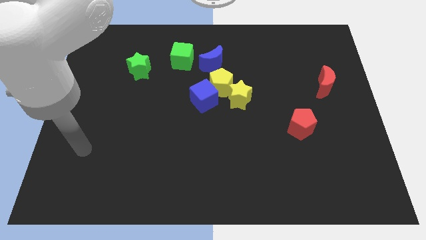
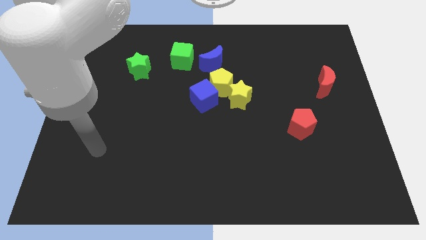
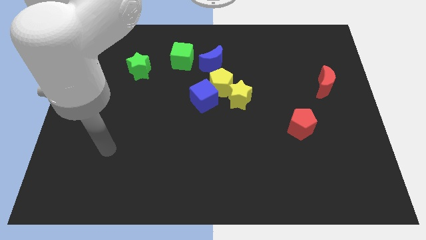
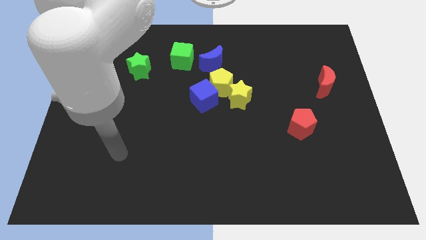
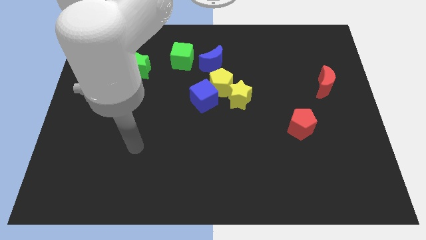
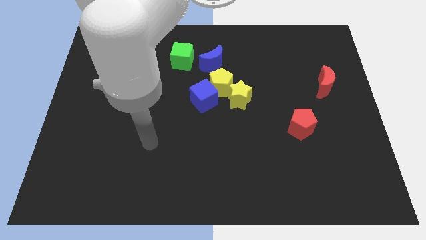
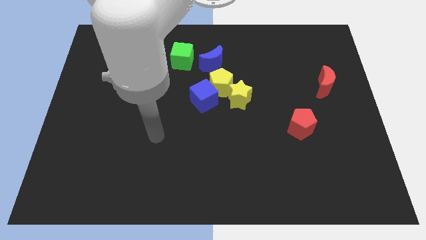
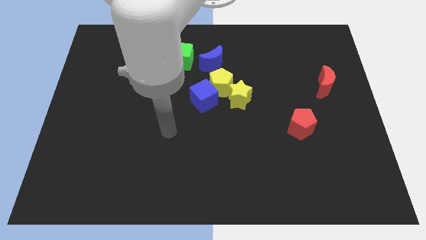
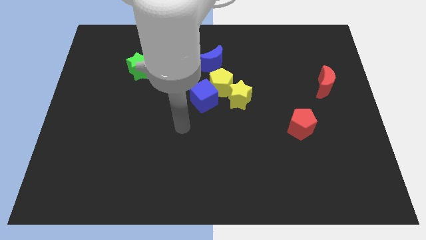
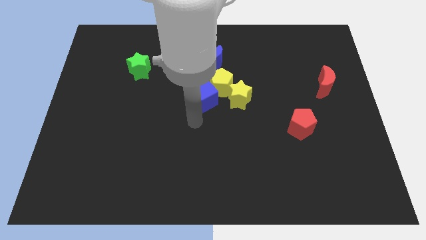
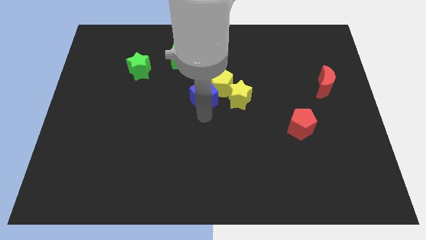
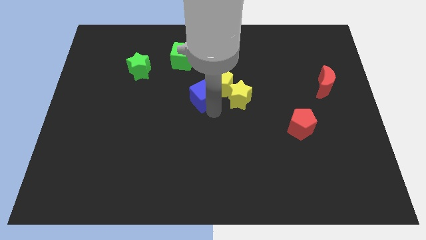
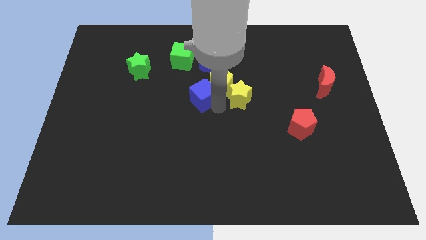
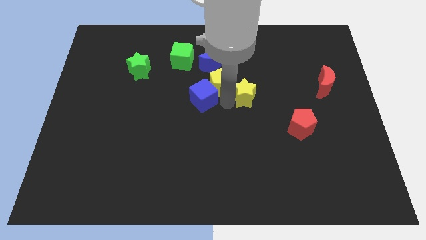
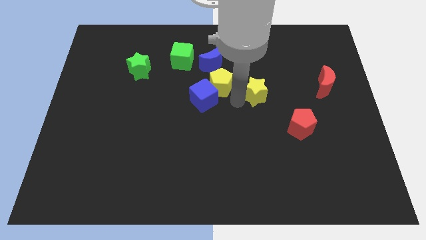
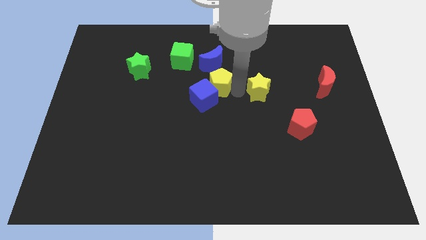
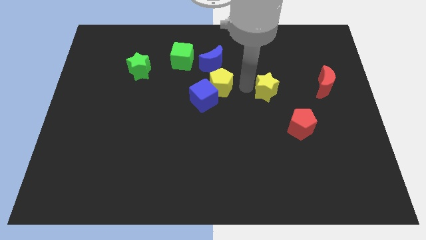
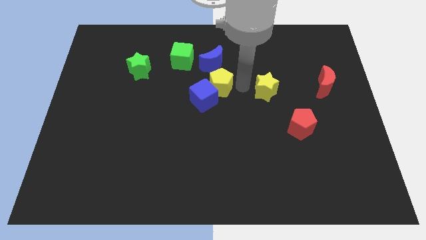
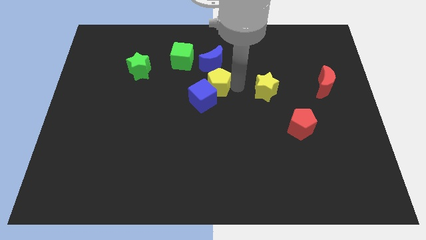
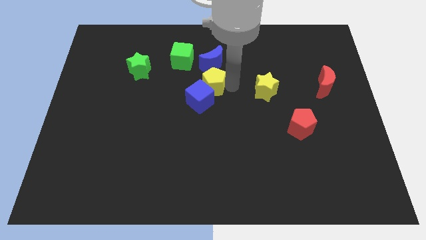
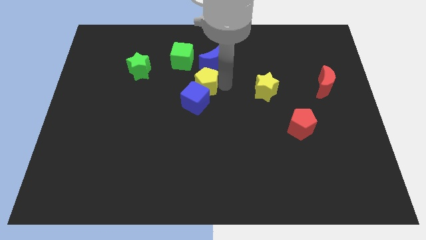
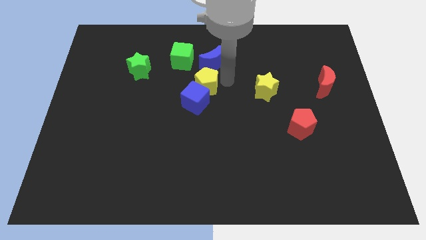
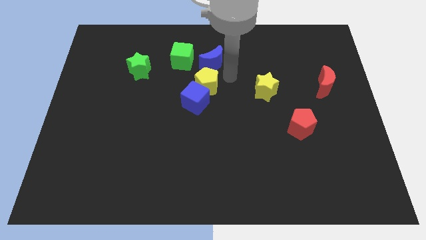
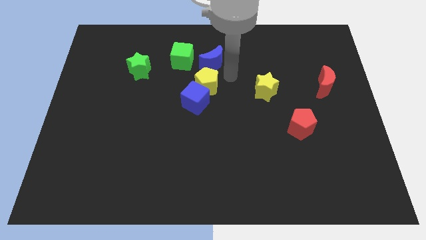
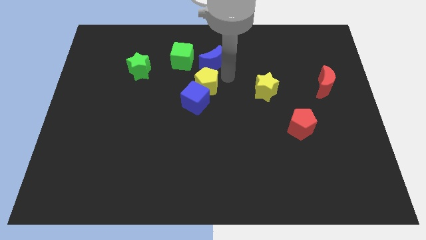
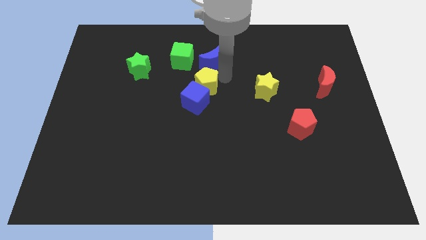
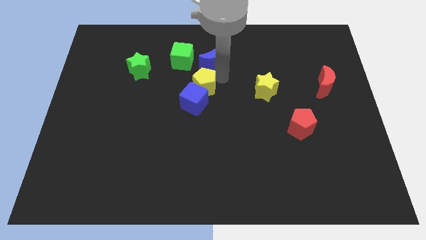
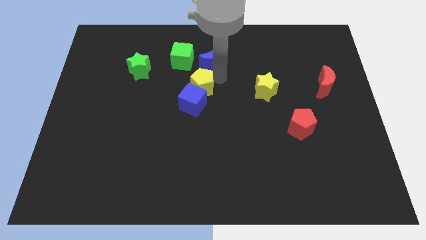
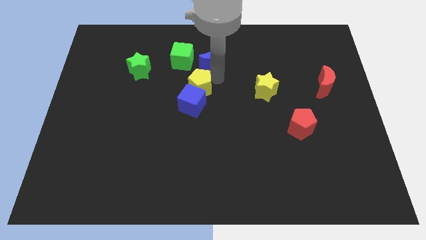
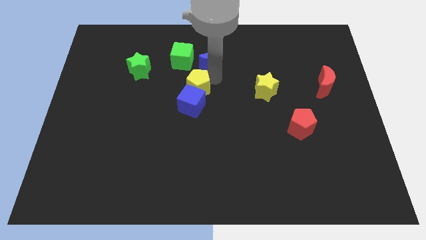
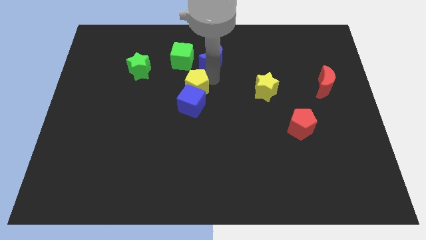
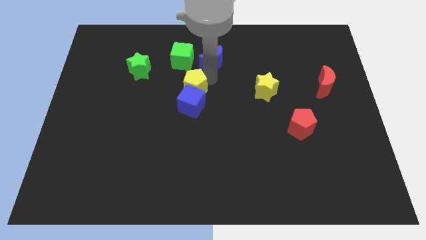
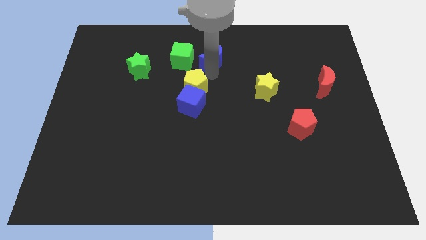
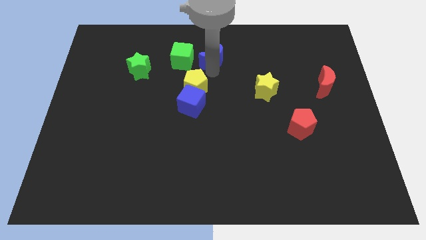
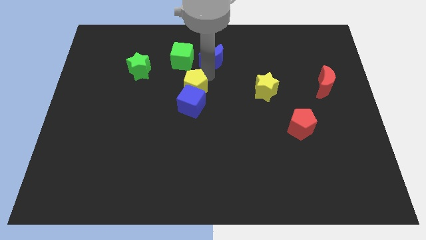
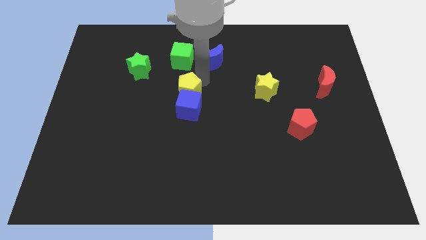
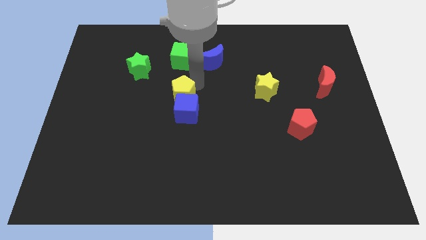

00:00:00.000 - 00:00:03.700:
slightly push the yellow pentagon down and then to the left

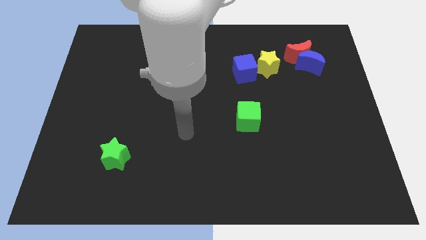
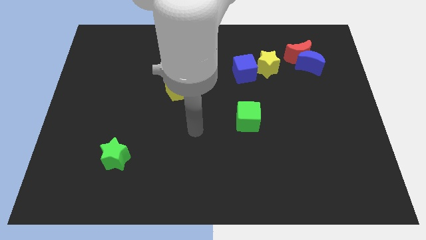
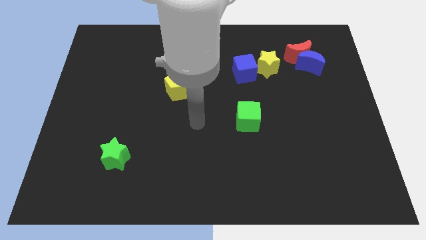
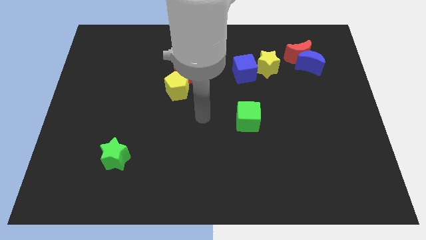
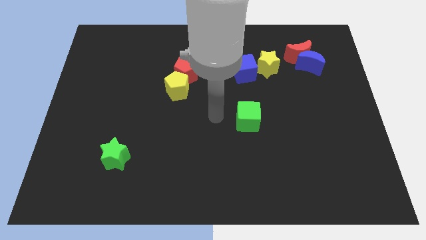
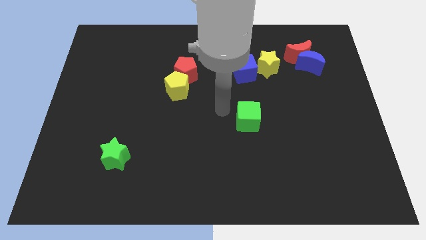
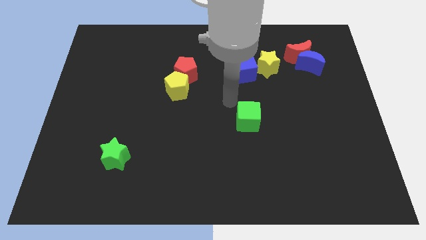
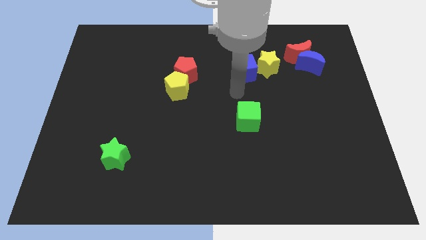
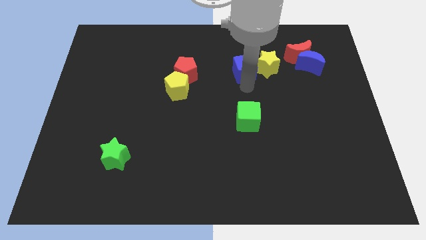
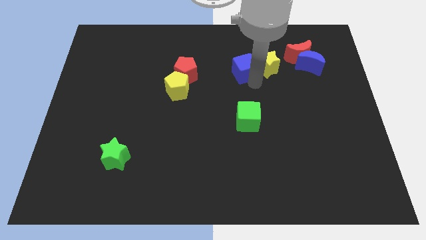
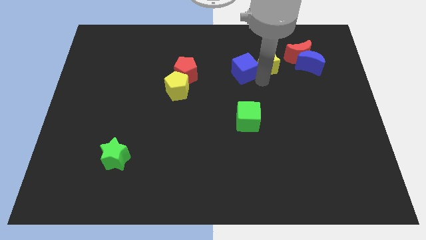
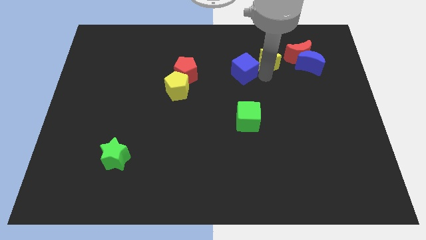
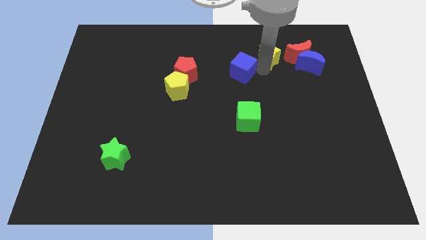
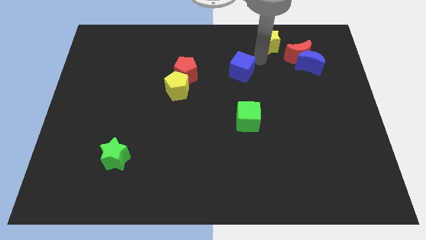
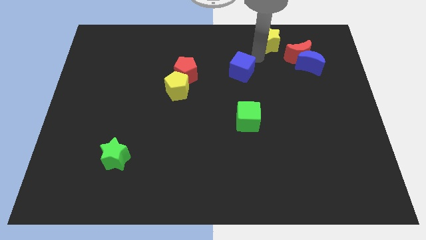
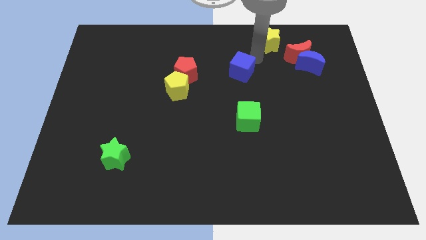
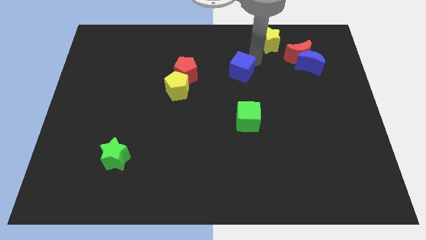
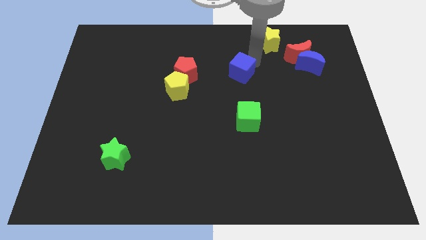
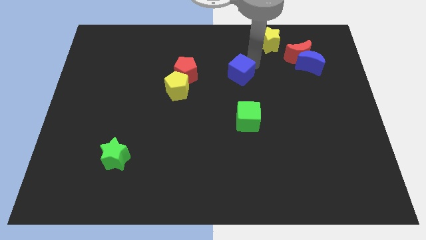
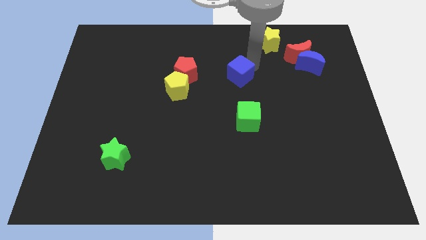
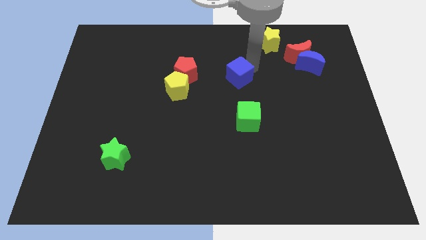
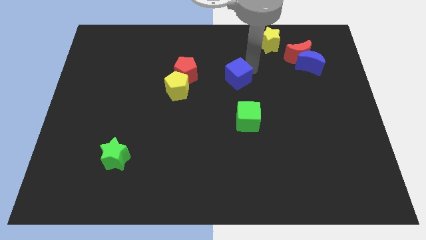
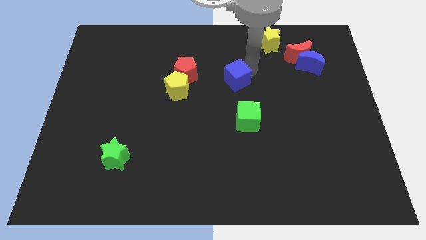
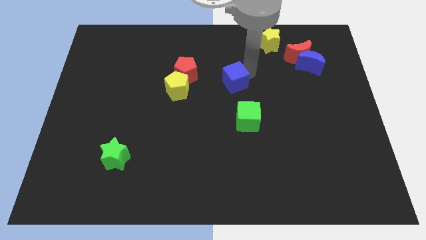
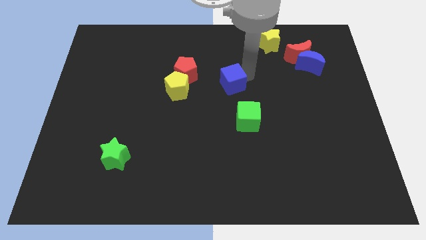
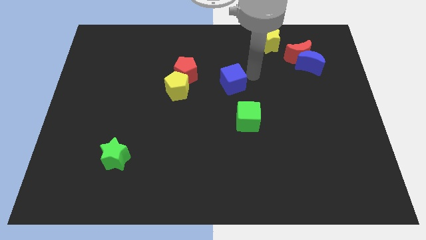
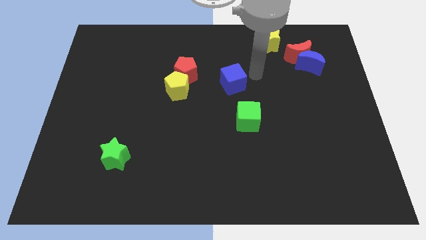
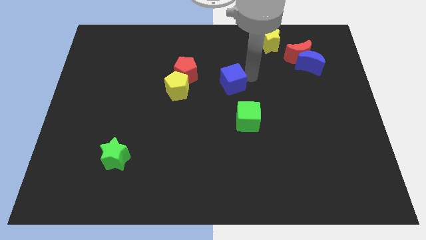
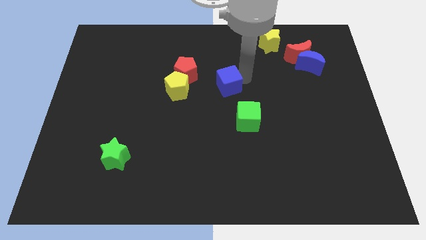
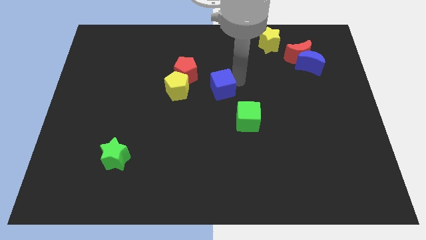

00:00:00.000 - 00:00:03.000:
move the blue cube downwards and left a little bit

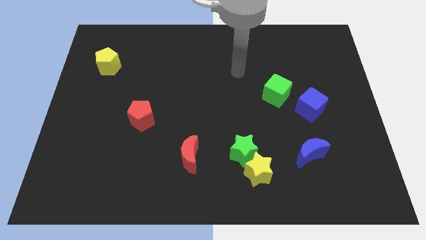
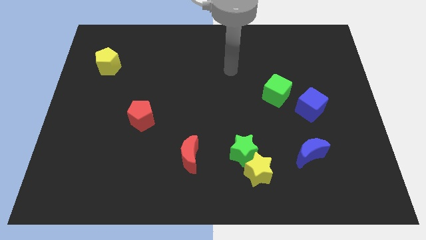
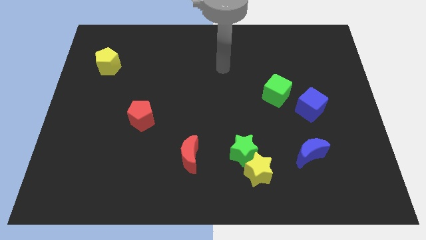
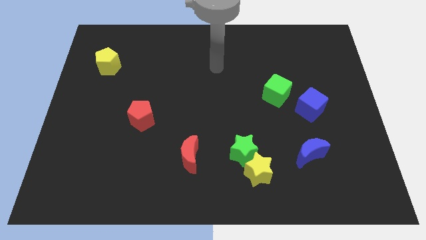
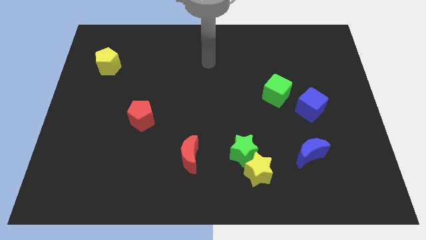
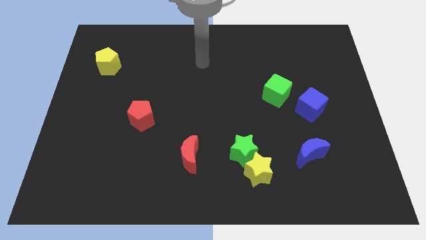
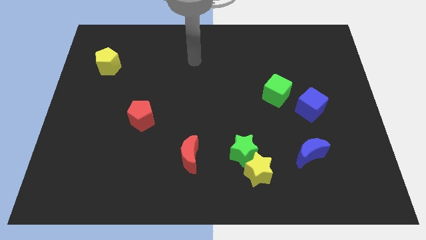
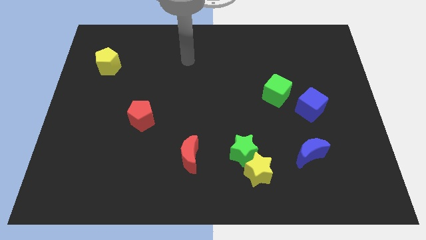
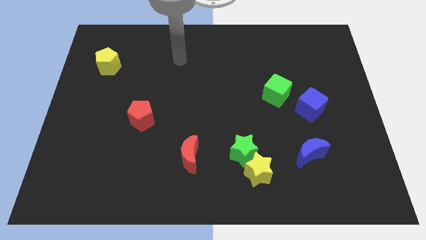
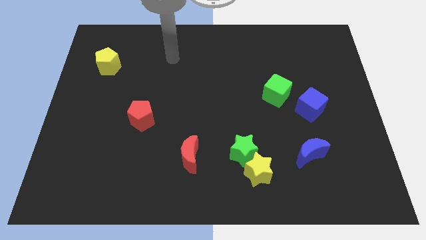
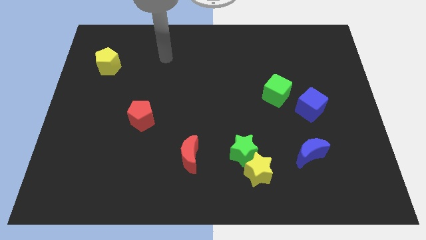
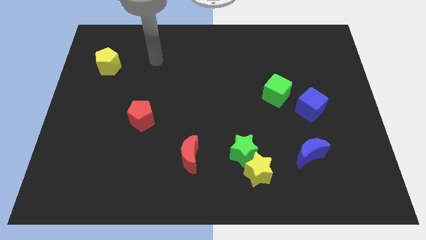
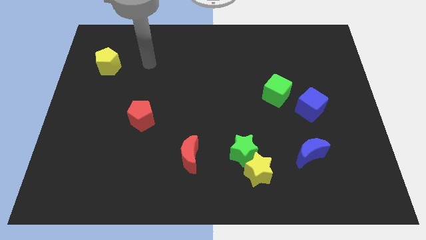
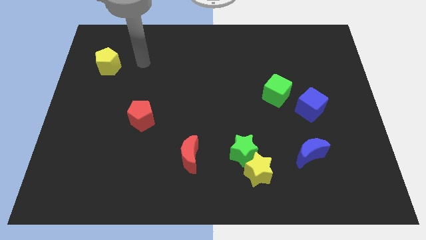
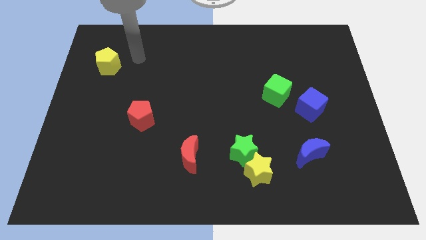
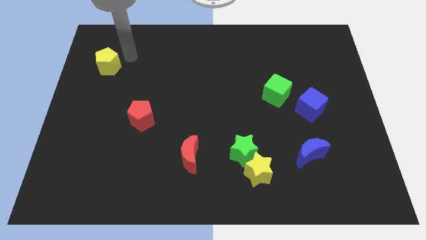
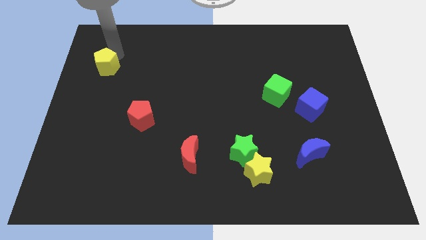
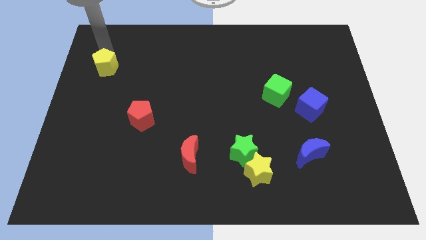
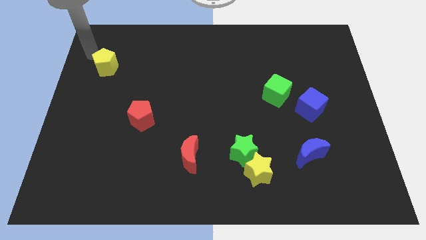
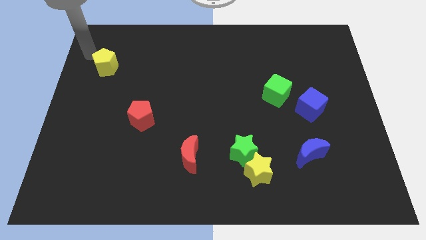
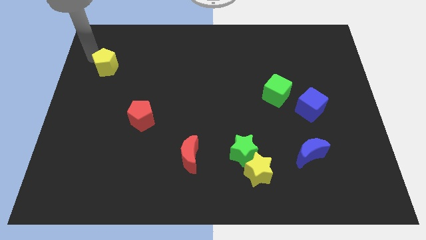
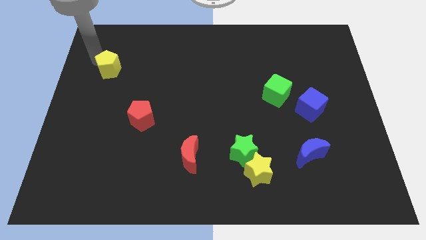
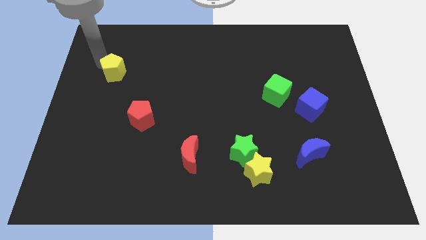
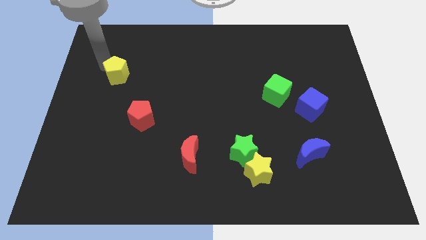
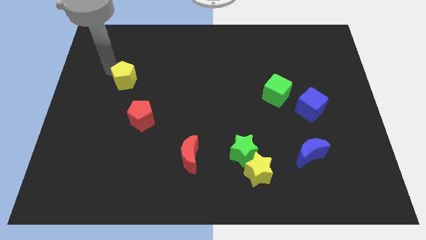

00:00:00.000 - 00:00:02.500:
move the yellow pentagon downwards and right a little bit
